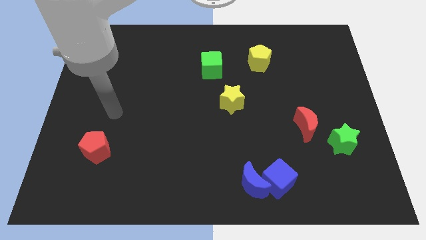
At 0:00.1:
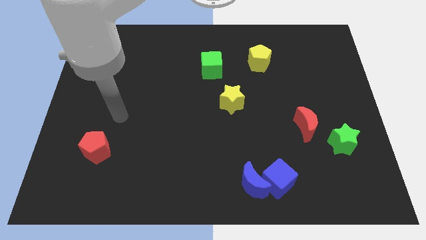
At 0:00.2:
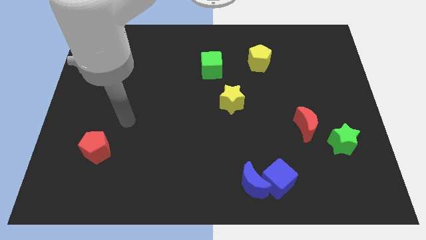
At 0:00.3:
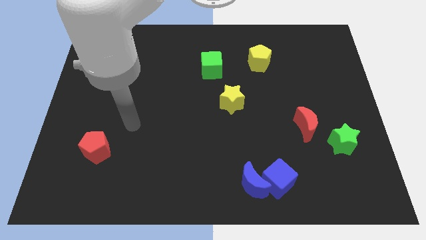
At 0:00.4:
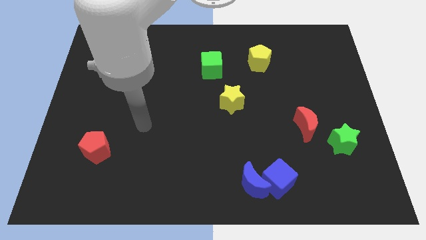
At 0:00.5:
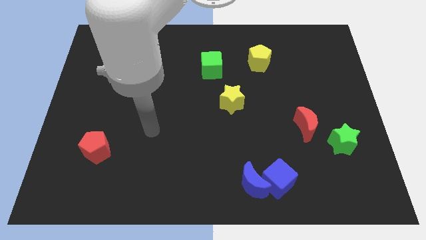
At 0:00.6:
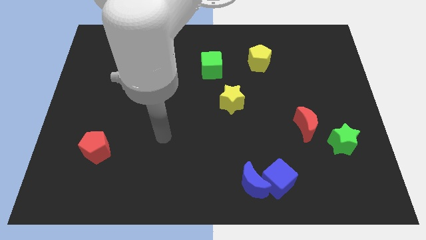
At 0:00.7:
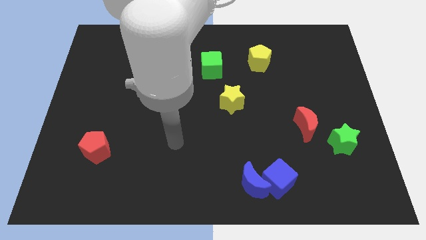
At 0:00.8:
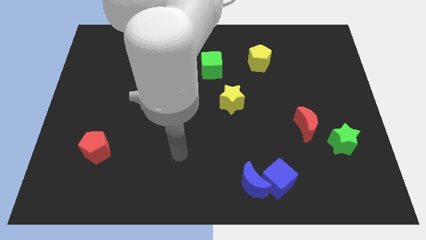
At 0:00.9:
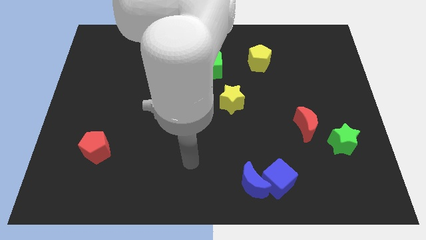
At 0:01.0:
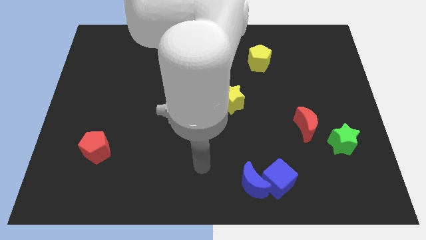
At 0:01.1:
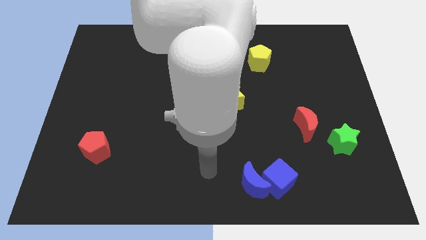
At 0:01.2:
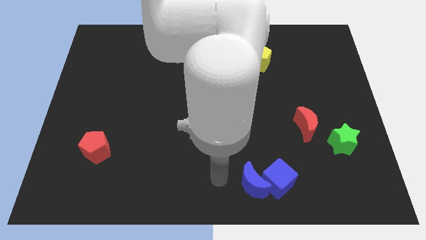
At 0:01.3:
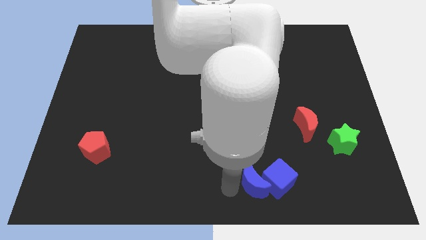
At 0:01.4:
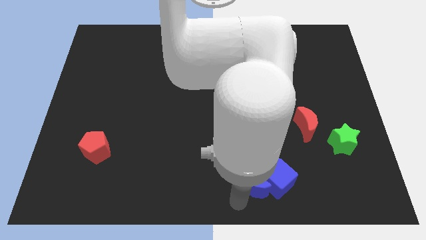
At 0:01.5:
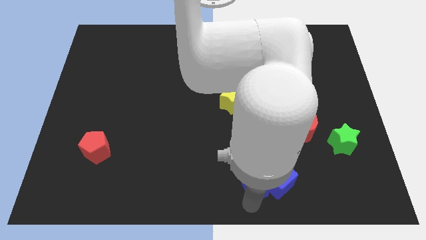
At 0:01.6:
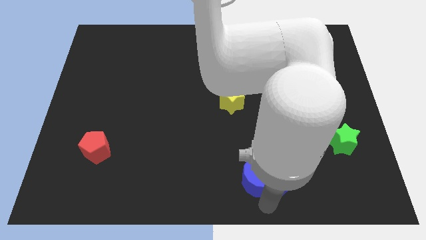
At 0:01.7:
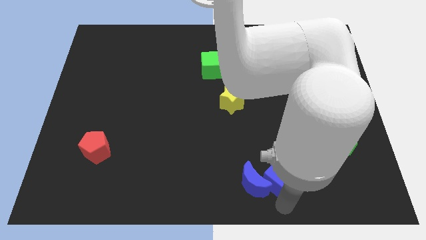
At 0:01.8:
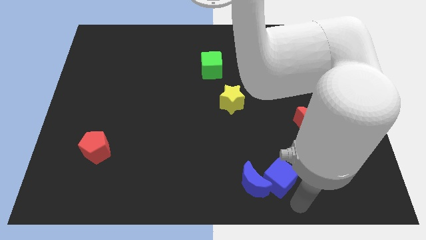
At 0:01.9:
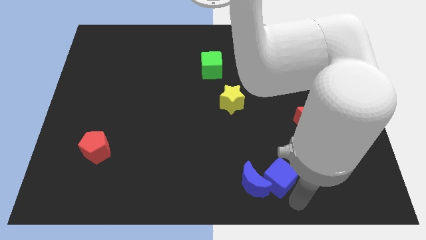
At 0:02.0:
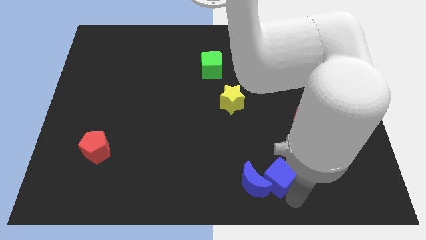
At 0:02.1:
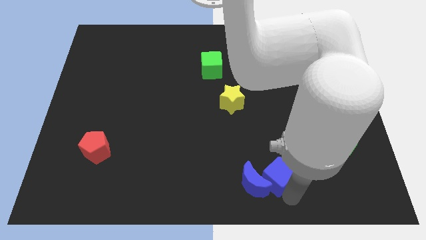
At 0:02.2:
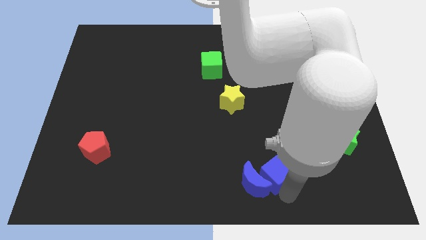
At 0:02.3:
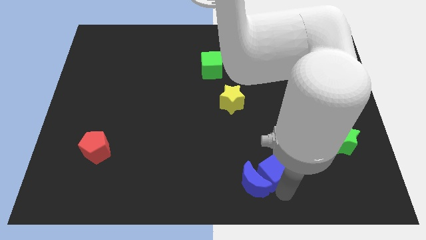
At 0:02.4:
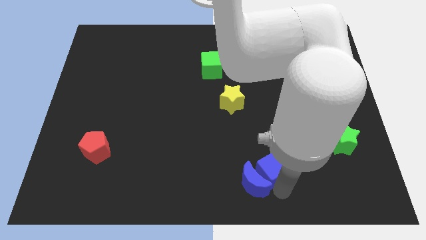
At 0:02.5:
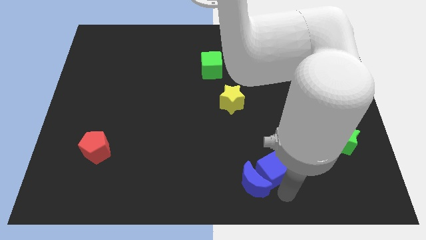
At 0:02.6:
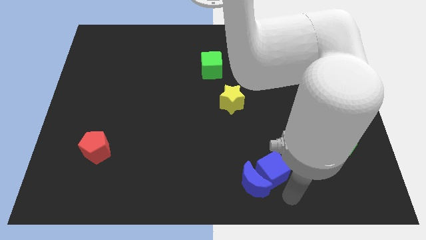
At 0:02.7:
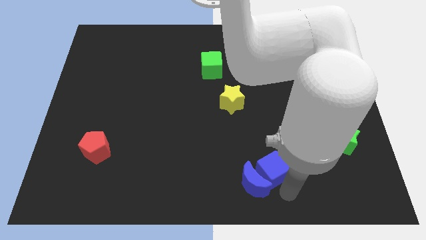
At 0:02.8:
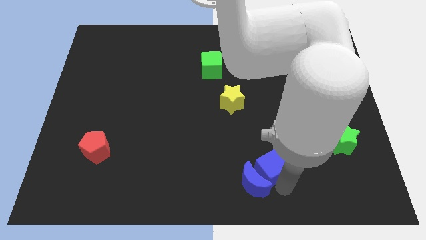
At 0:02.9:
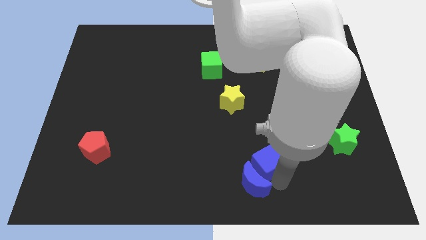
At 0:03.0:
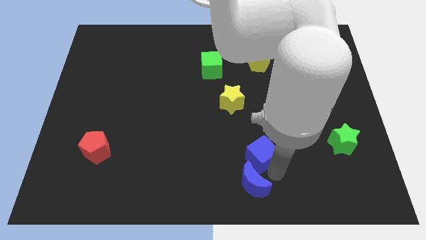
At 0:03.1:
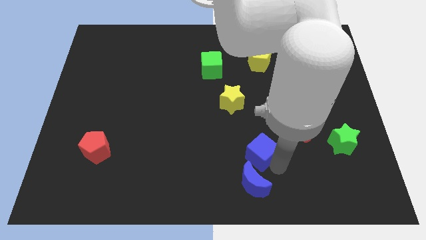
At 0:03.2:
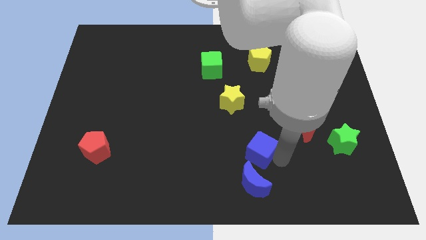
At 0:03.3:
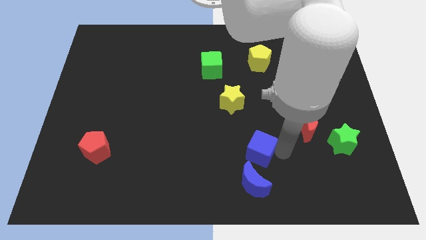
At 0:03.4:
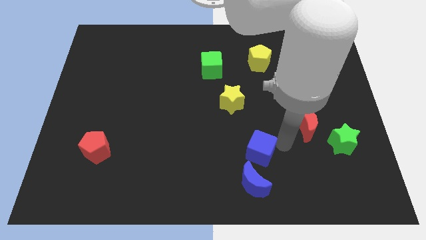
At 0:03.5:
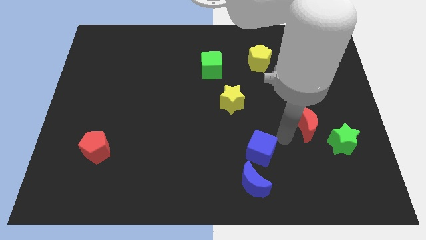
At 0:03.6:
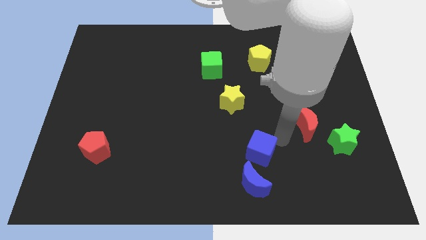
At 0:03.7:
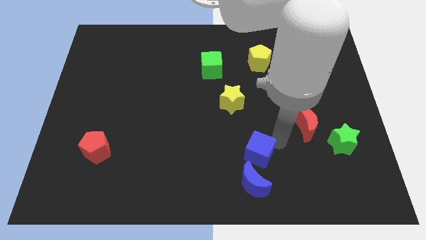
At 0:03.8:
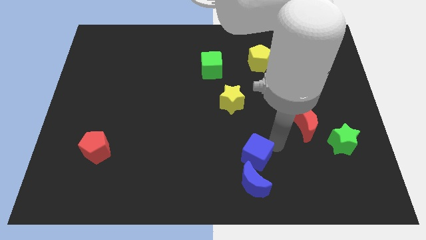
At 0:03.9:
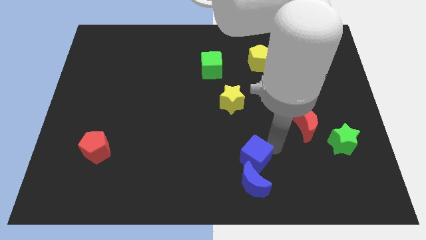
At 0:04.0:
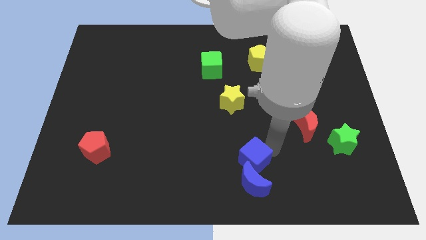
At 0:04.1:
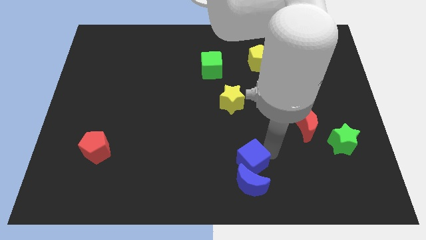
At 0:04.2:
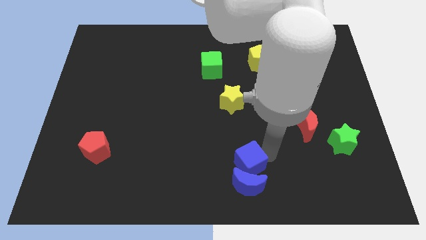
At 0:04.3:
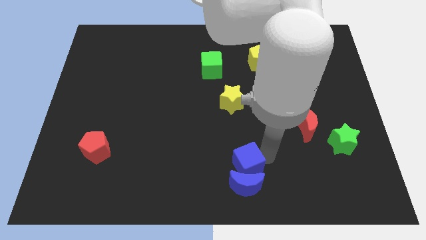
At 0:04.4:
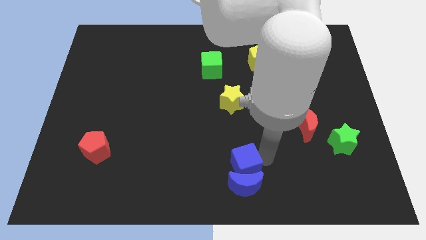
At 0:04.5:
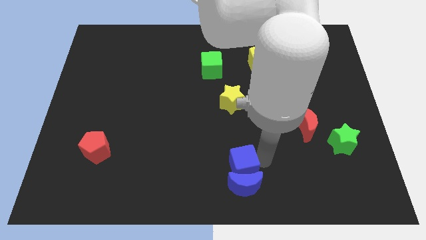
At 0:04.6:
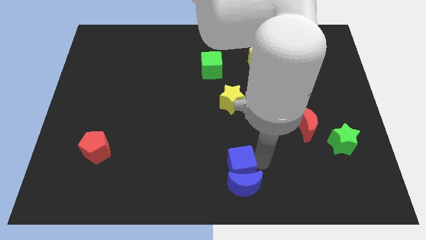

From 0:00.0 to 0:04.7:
move the blue cube left a bit

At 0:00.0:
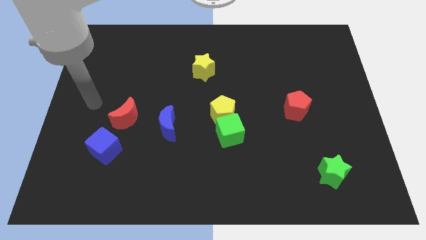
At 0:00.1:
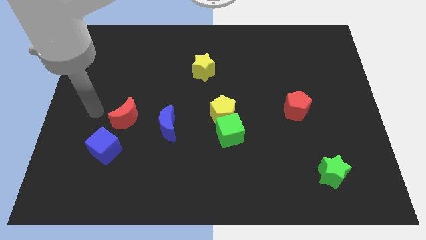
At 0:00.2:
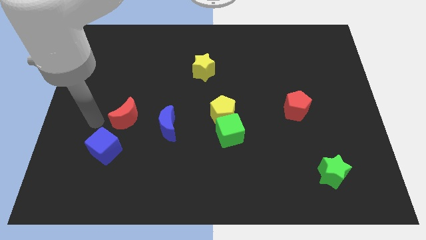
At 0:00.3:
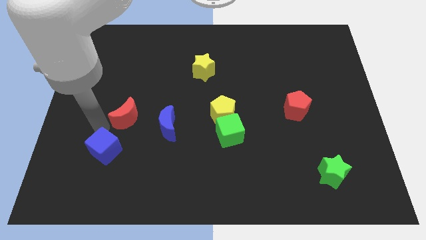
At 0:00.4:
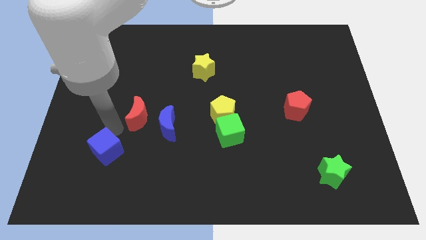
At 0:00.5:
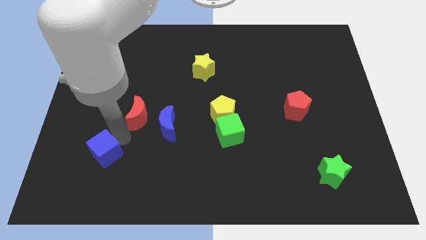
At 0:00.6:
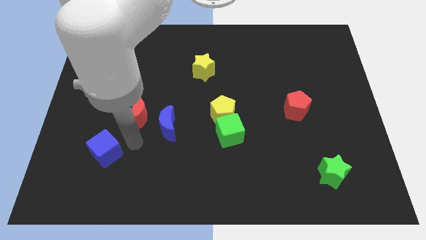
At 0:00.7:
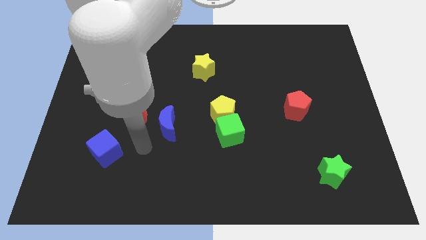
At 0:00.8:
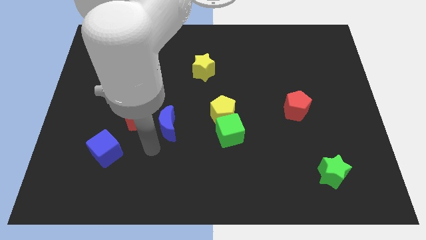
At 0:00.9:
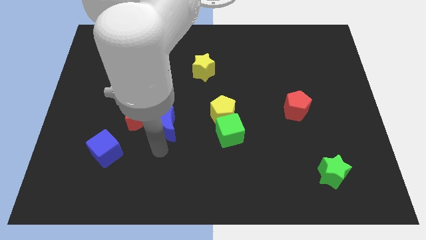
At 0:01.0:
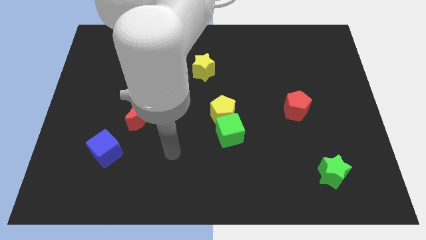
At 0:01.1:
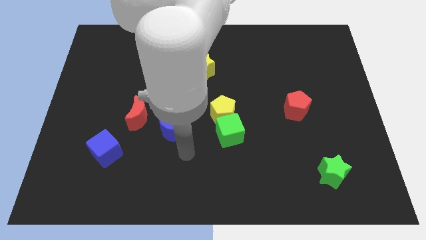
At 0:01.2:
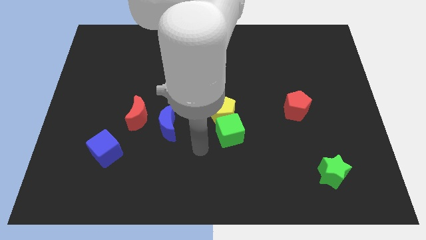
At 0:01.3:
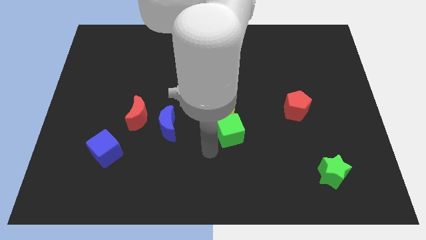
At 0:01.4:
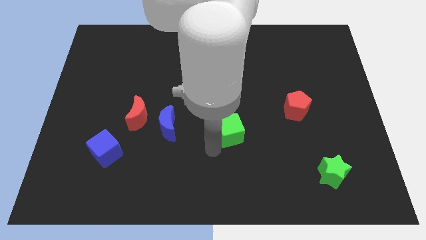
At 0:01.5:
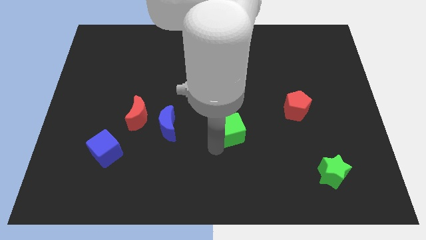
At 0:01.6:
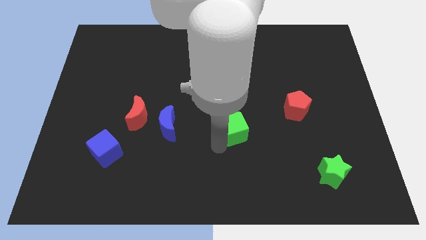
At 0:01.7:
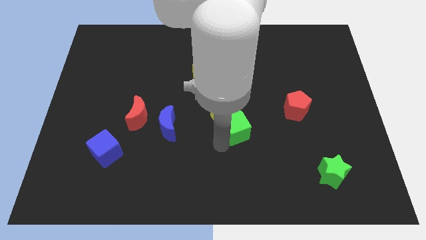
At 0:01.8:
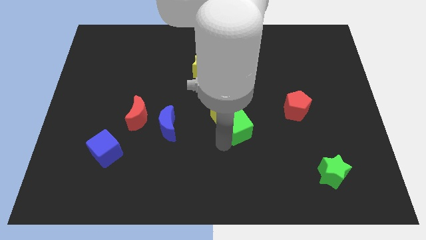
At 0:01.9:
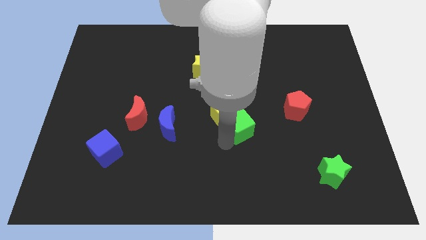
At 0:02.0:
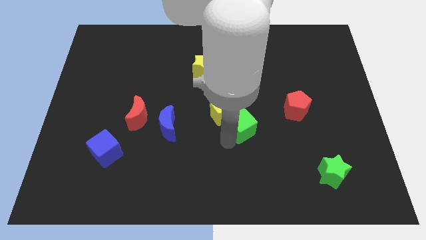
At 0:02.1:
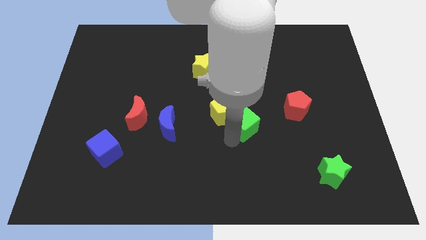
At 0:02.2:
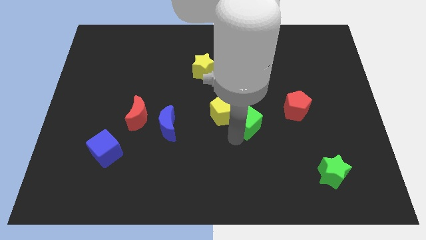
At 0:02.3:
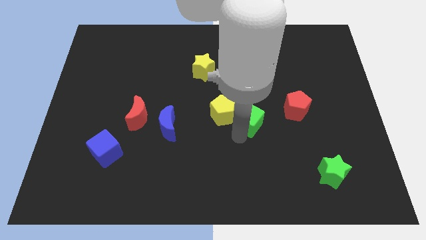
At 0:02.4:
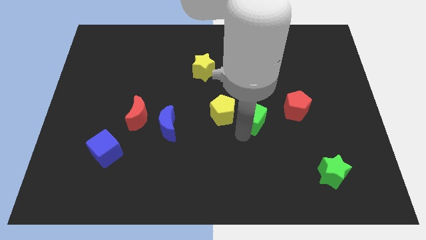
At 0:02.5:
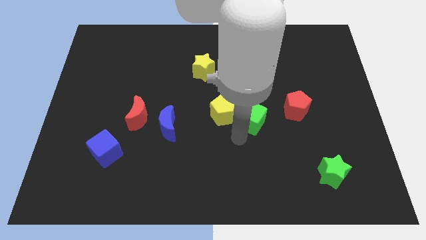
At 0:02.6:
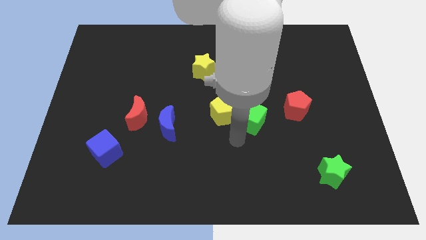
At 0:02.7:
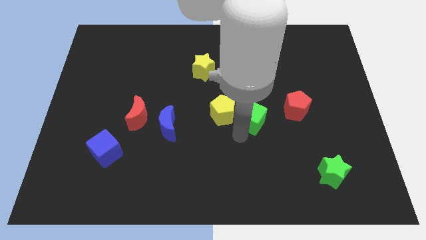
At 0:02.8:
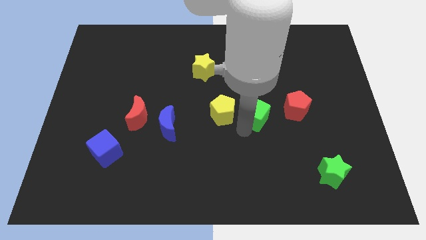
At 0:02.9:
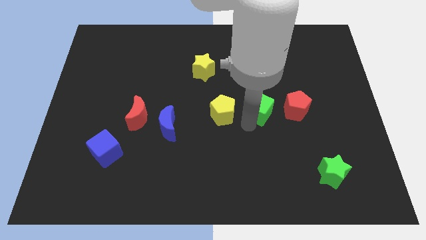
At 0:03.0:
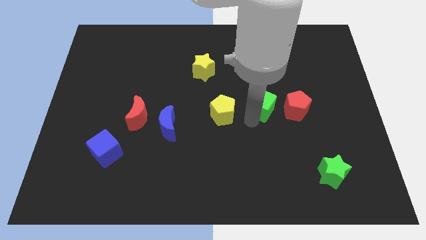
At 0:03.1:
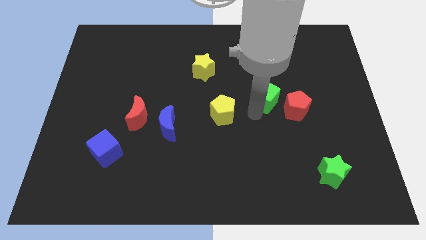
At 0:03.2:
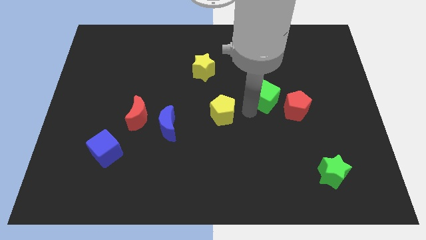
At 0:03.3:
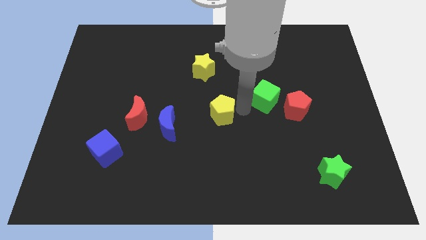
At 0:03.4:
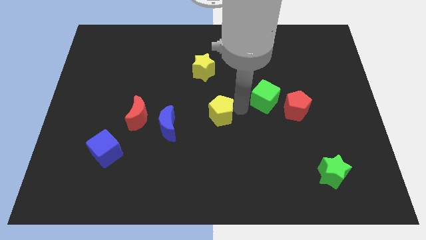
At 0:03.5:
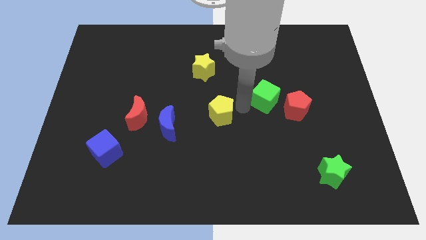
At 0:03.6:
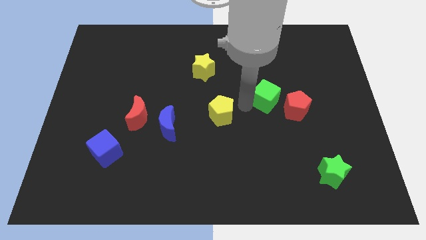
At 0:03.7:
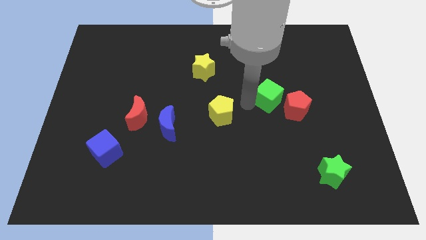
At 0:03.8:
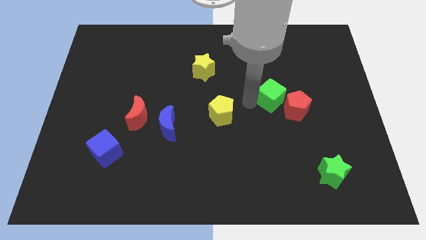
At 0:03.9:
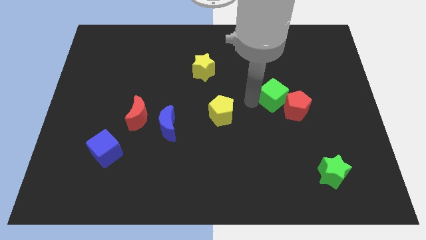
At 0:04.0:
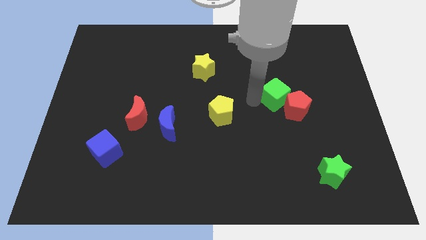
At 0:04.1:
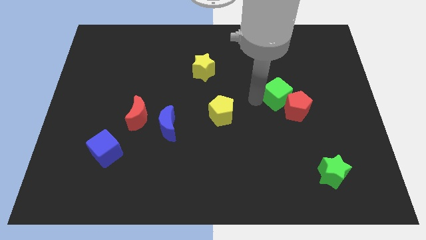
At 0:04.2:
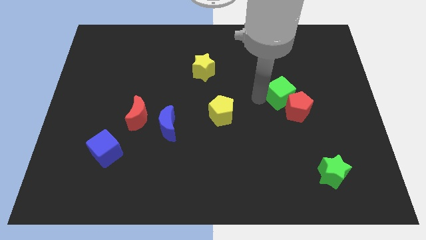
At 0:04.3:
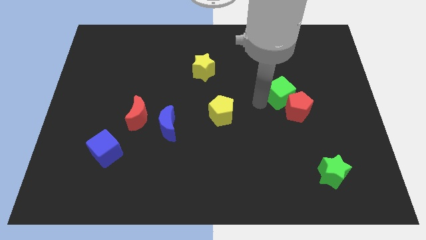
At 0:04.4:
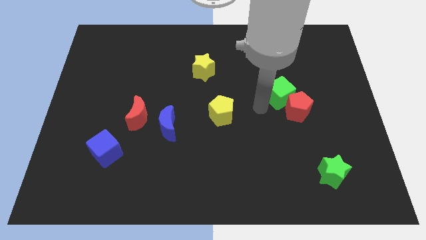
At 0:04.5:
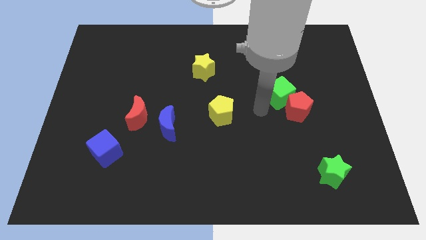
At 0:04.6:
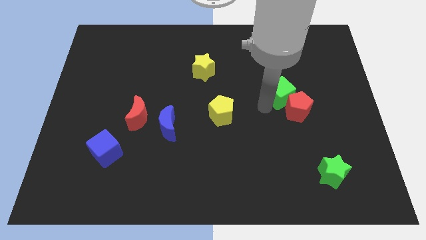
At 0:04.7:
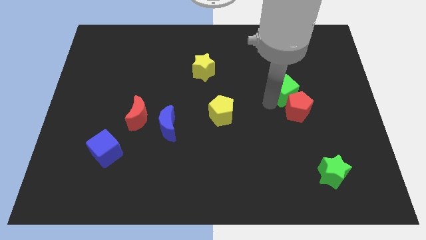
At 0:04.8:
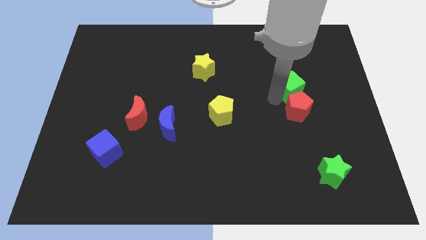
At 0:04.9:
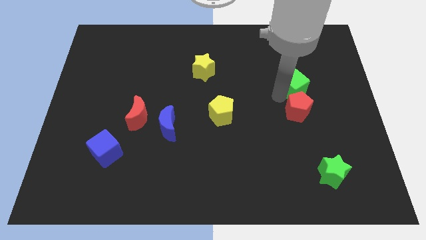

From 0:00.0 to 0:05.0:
push the green cube up and right diagonally
